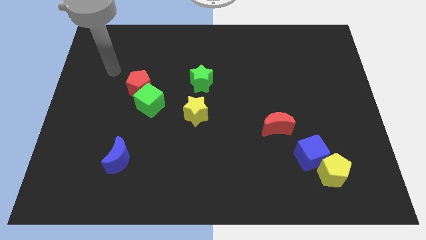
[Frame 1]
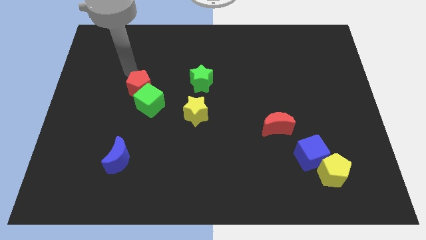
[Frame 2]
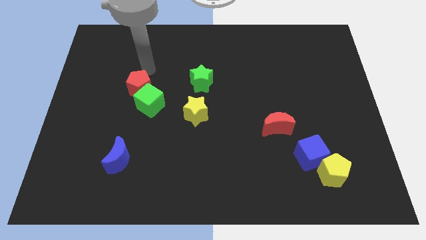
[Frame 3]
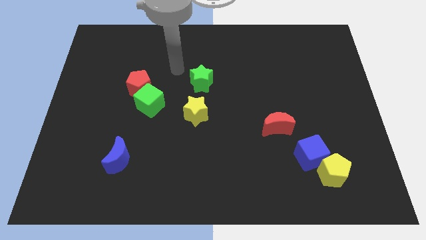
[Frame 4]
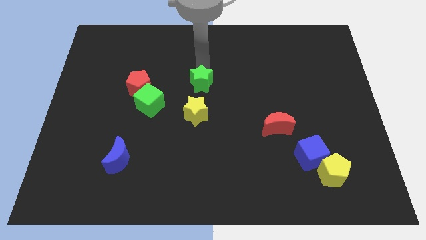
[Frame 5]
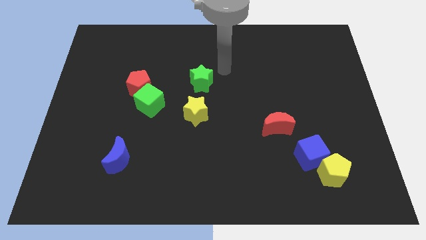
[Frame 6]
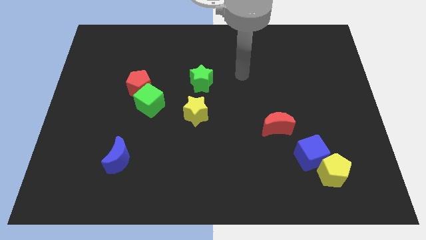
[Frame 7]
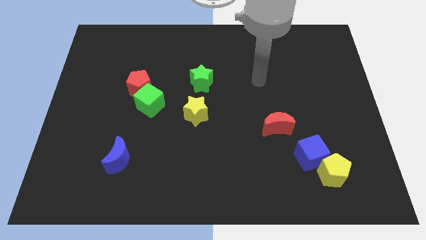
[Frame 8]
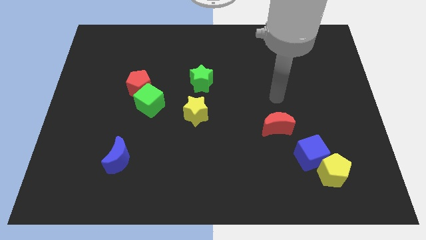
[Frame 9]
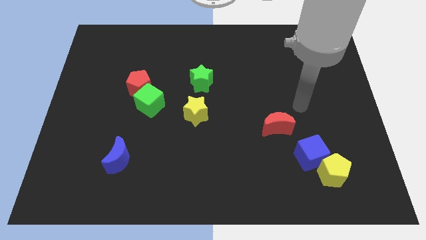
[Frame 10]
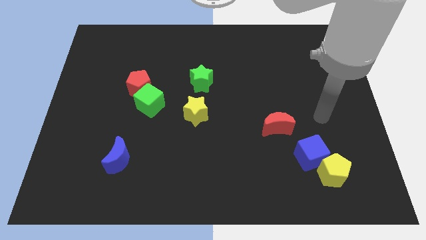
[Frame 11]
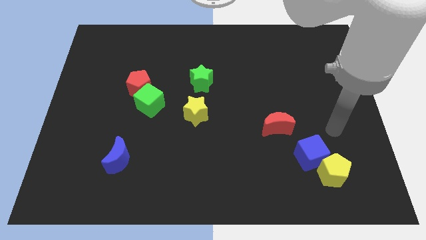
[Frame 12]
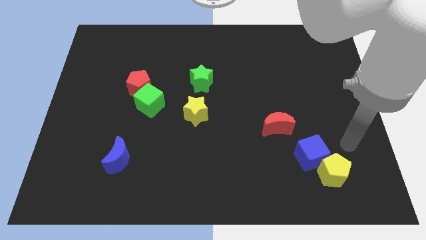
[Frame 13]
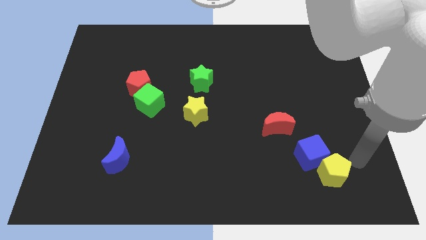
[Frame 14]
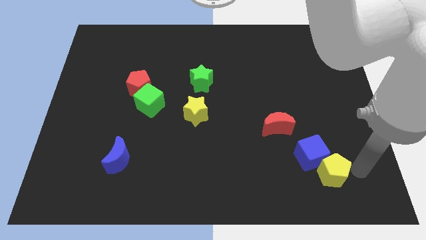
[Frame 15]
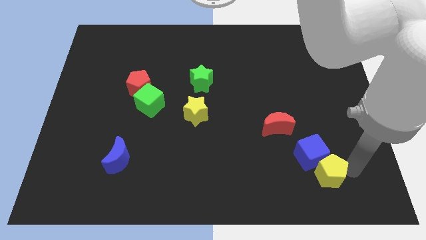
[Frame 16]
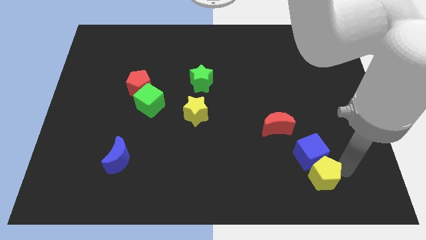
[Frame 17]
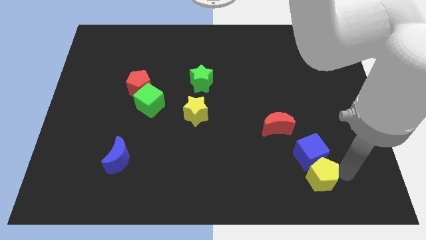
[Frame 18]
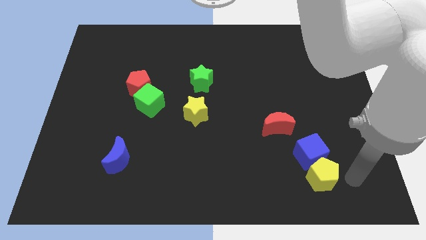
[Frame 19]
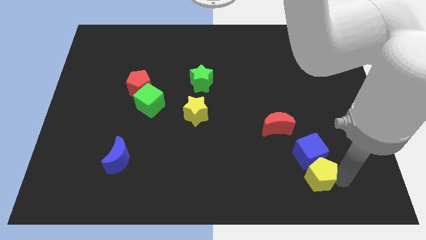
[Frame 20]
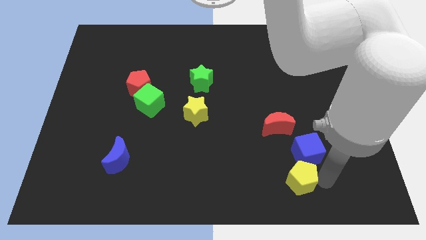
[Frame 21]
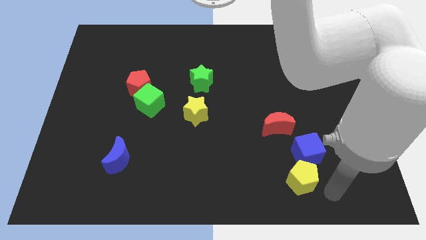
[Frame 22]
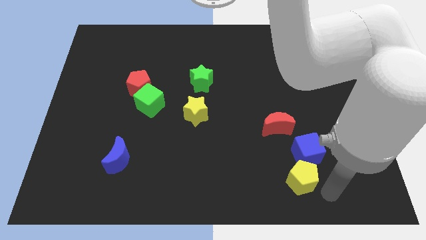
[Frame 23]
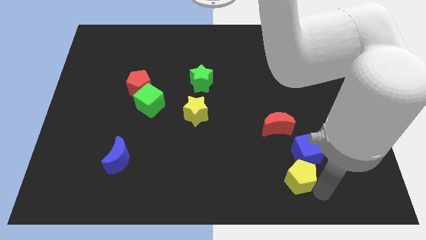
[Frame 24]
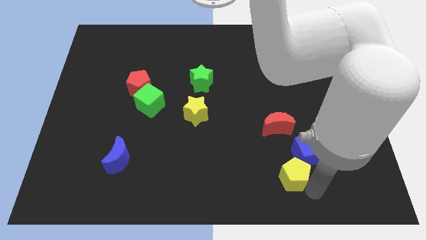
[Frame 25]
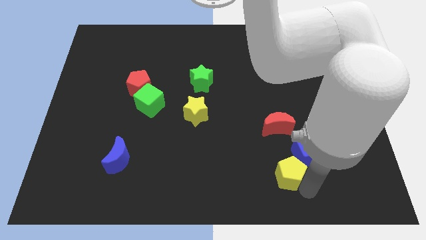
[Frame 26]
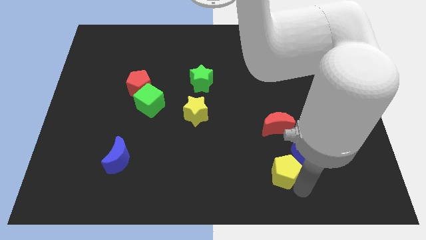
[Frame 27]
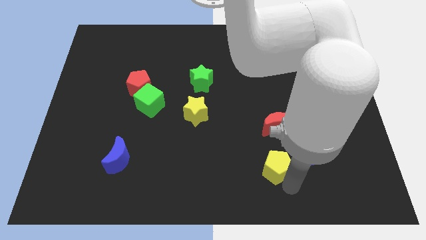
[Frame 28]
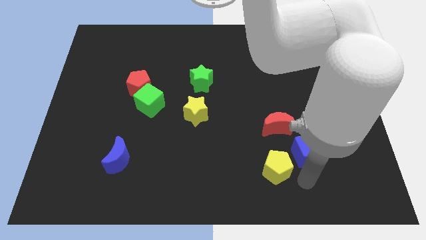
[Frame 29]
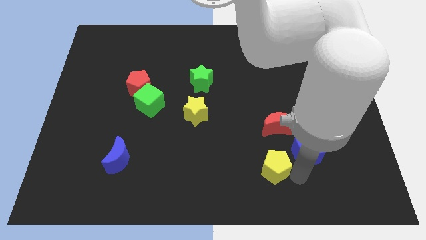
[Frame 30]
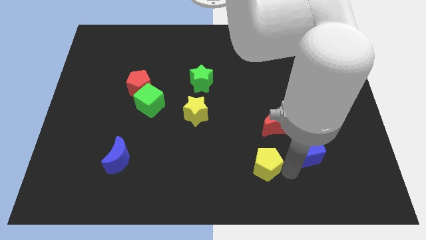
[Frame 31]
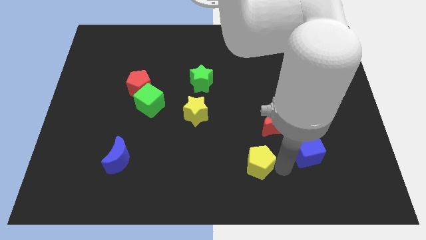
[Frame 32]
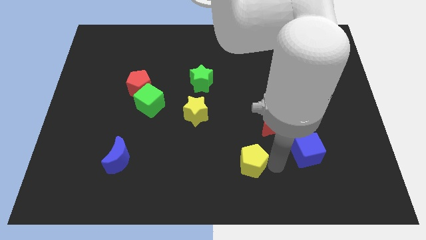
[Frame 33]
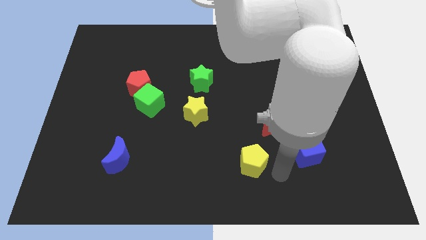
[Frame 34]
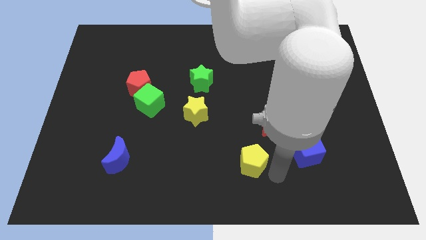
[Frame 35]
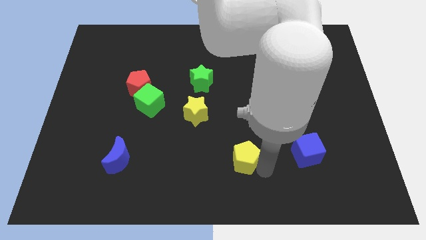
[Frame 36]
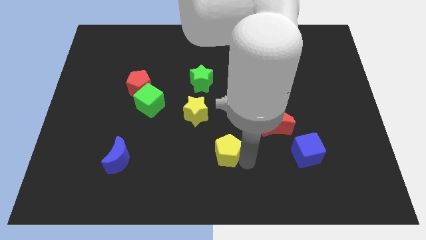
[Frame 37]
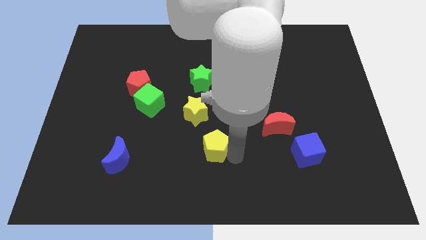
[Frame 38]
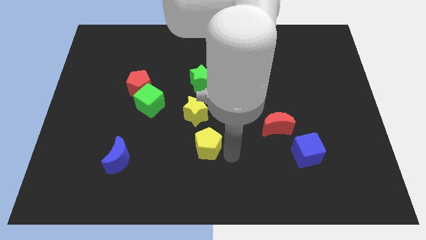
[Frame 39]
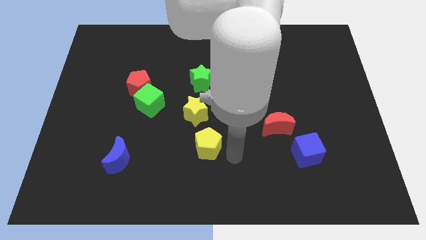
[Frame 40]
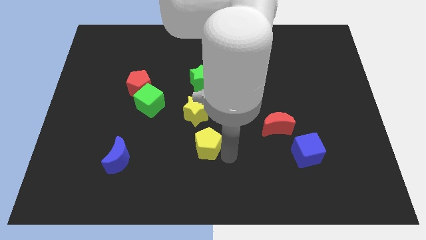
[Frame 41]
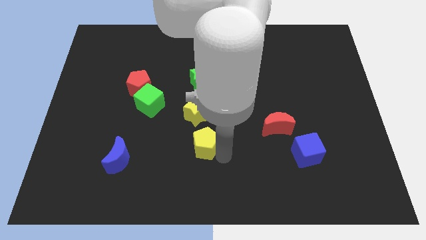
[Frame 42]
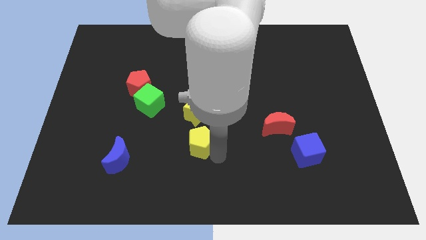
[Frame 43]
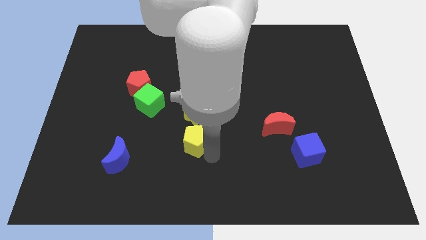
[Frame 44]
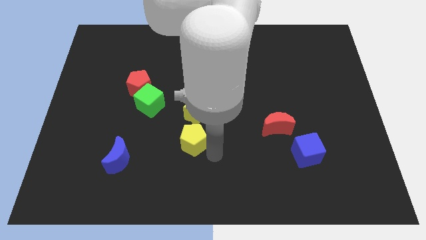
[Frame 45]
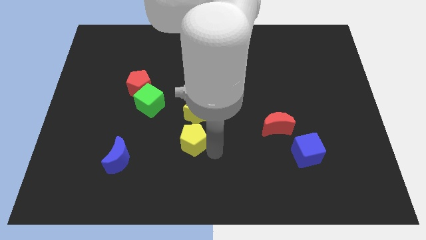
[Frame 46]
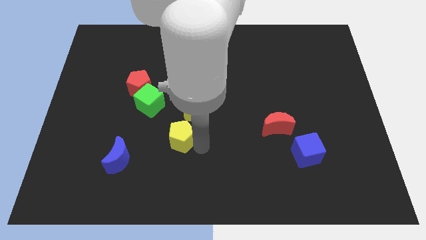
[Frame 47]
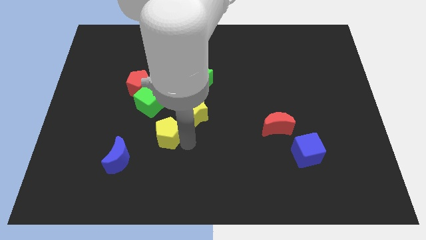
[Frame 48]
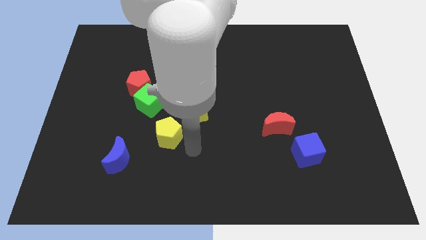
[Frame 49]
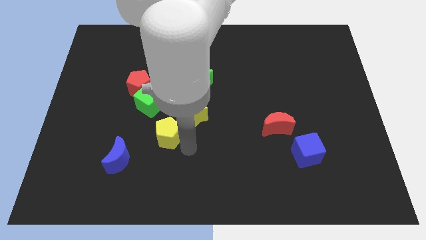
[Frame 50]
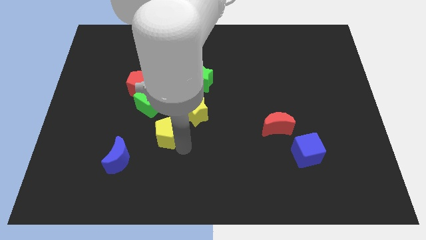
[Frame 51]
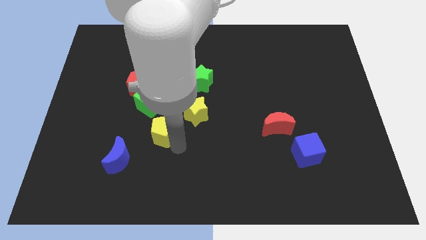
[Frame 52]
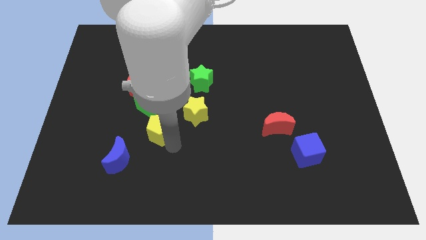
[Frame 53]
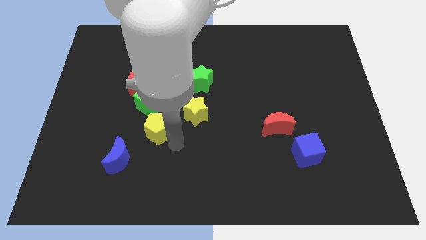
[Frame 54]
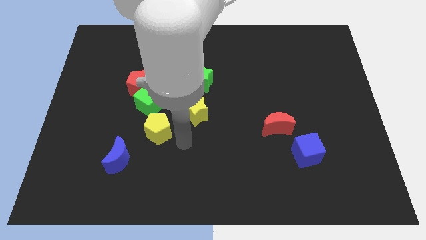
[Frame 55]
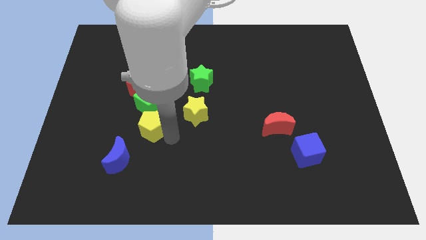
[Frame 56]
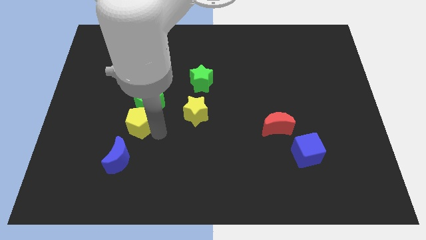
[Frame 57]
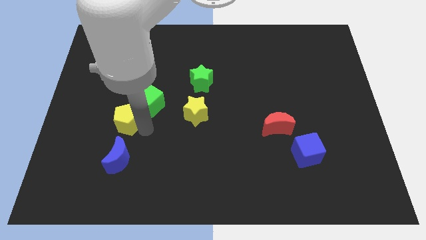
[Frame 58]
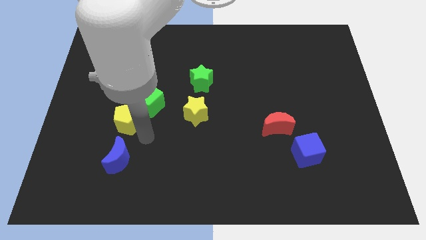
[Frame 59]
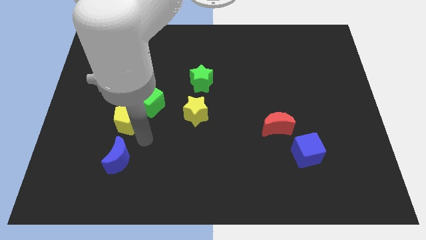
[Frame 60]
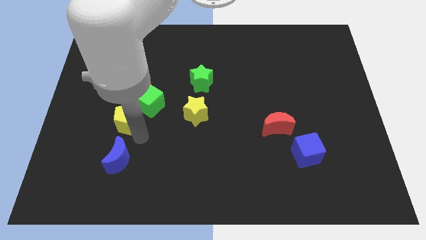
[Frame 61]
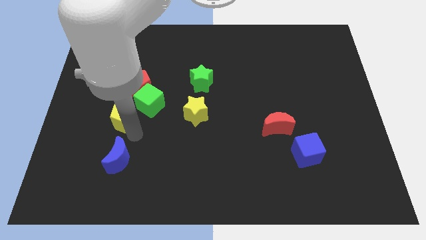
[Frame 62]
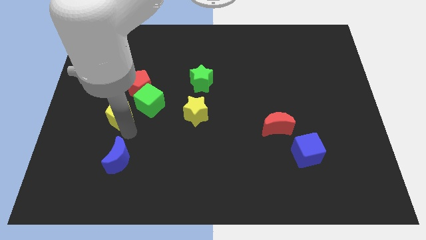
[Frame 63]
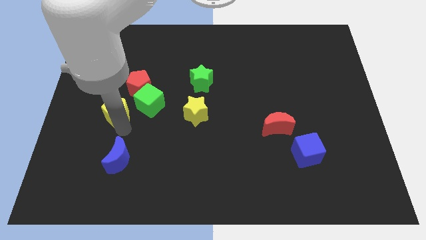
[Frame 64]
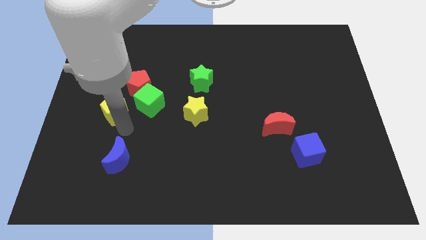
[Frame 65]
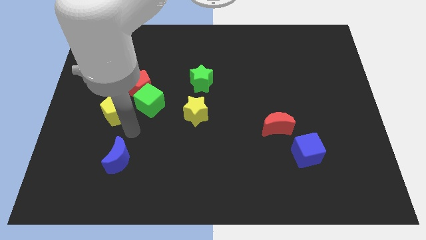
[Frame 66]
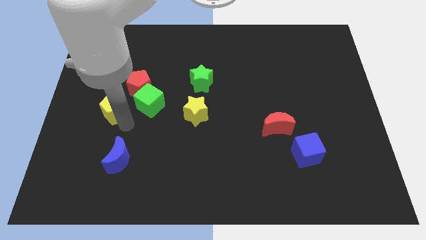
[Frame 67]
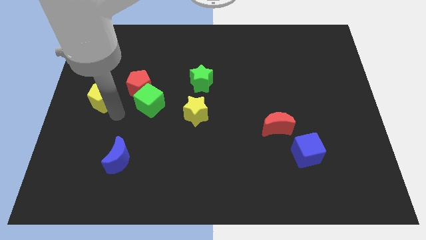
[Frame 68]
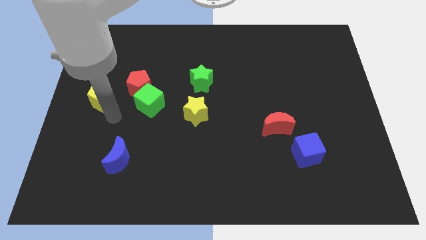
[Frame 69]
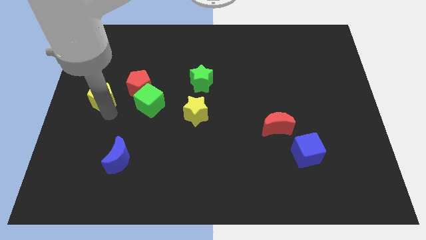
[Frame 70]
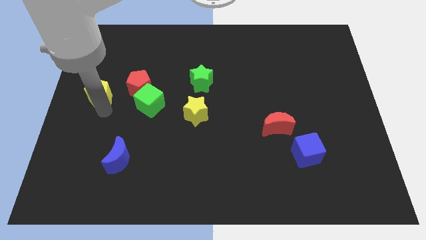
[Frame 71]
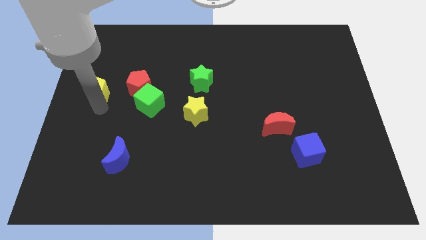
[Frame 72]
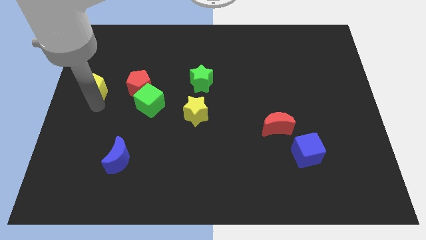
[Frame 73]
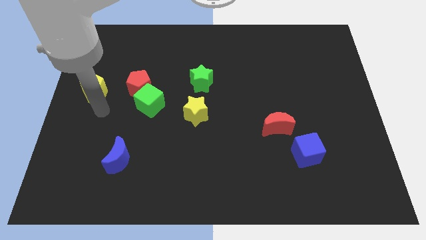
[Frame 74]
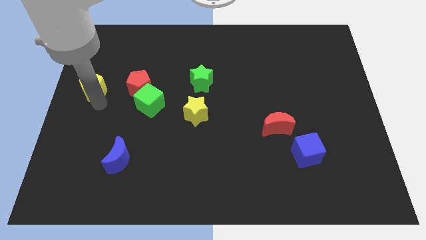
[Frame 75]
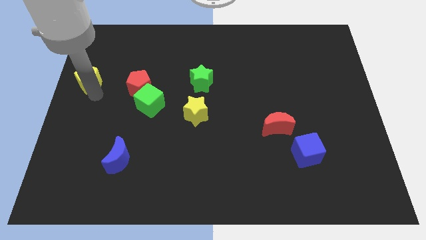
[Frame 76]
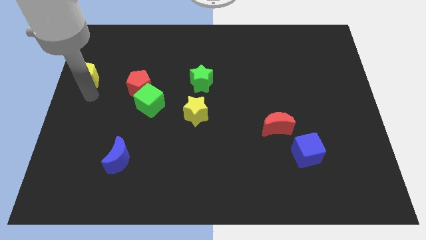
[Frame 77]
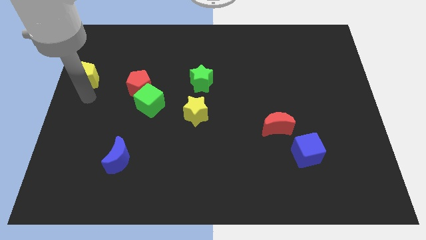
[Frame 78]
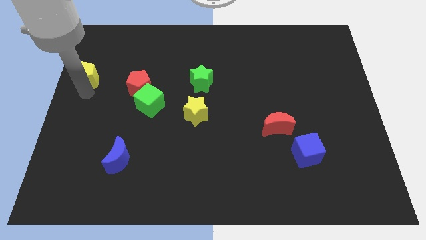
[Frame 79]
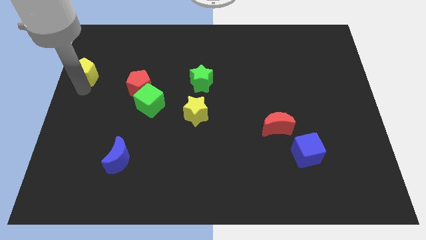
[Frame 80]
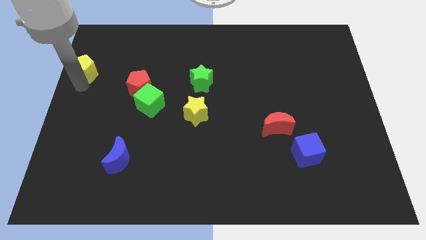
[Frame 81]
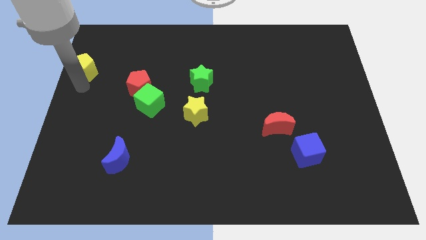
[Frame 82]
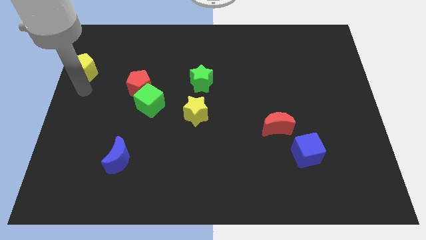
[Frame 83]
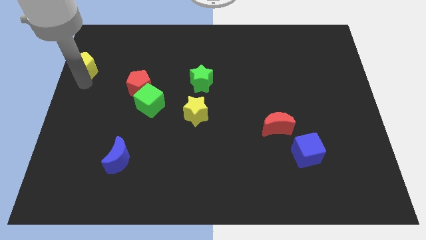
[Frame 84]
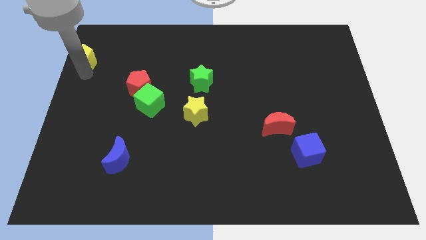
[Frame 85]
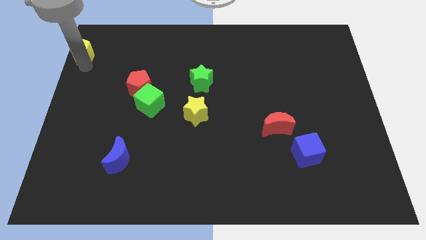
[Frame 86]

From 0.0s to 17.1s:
slide the yellow pentagon to the top left corner
